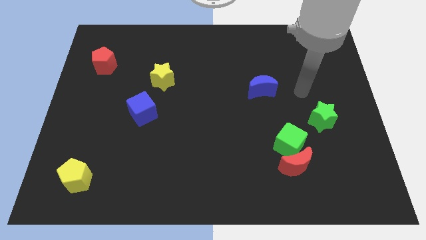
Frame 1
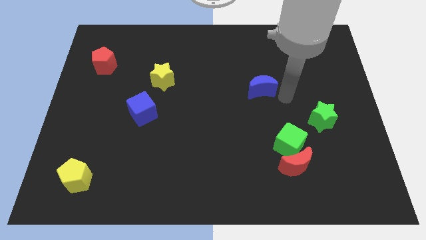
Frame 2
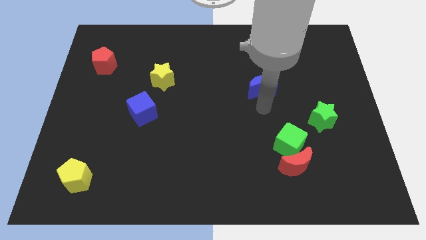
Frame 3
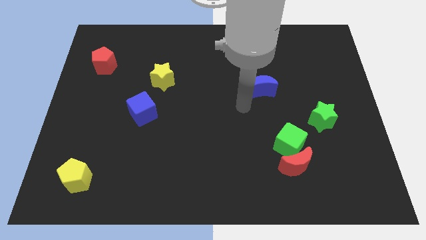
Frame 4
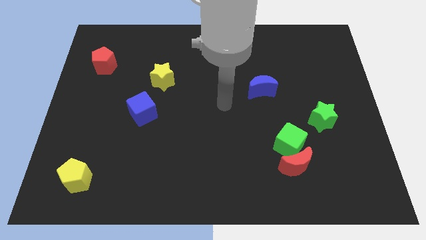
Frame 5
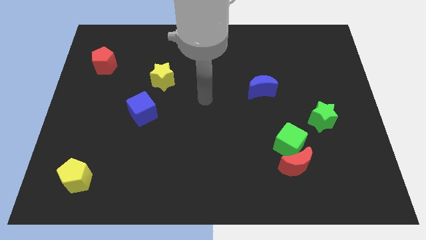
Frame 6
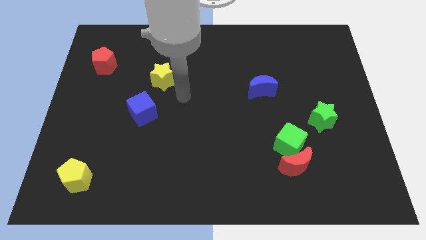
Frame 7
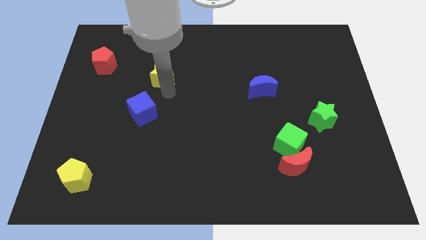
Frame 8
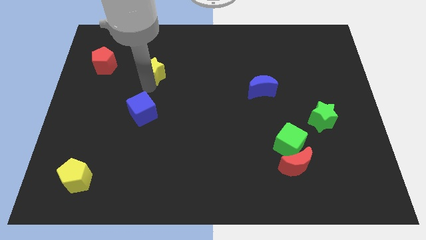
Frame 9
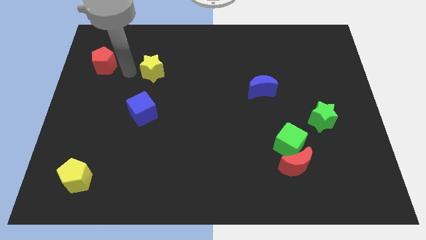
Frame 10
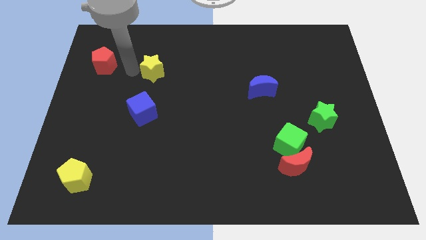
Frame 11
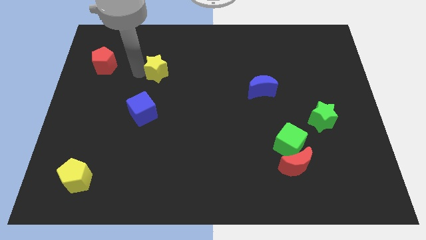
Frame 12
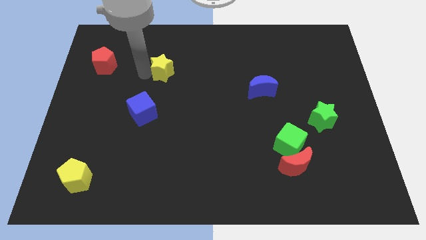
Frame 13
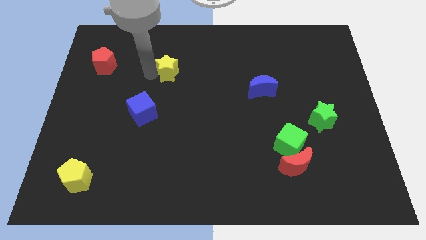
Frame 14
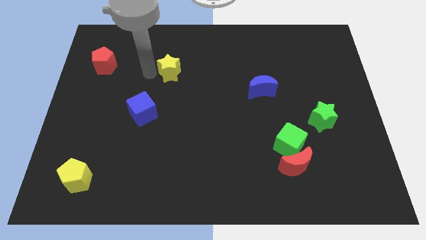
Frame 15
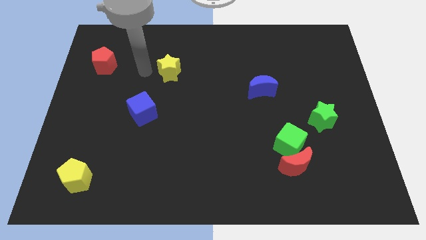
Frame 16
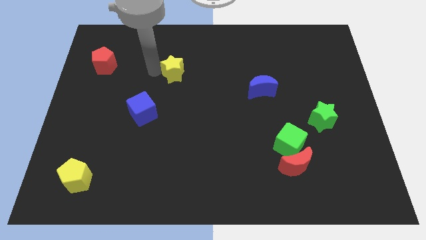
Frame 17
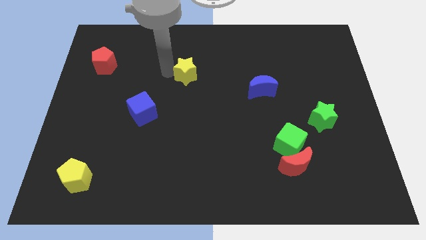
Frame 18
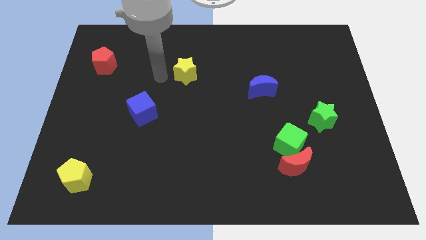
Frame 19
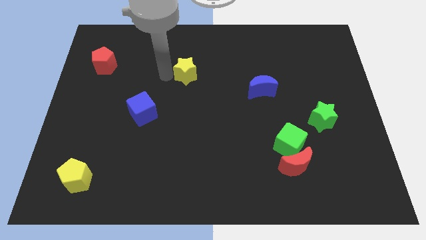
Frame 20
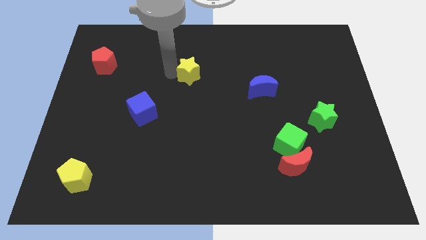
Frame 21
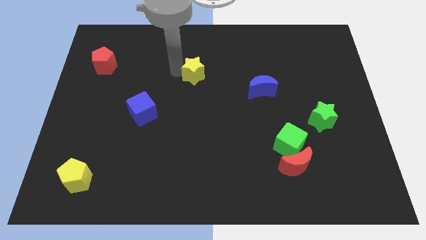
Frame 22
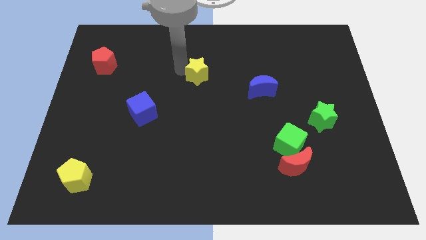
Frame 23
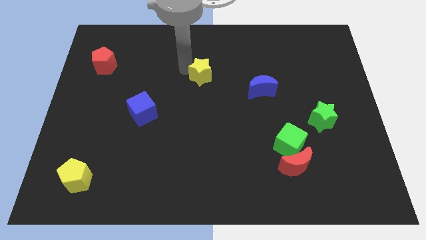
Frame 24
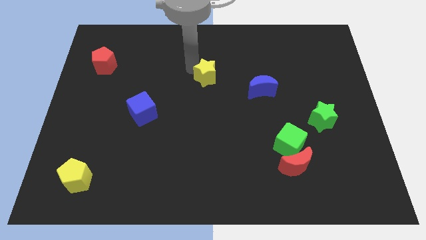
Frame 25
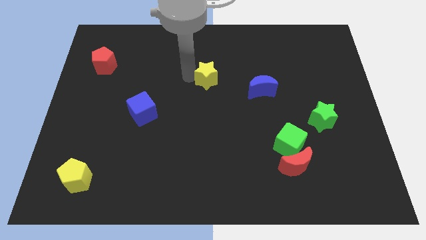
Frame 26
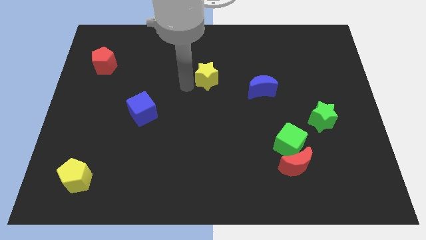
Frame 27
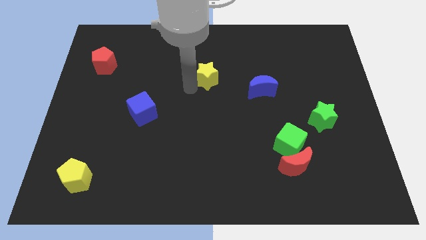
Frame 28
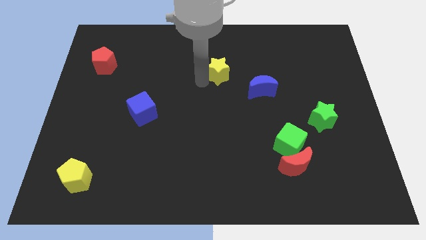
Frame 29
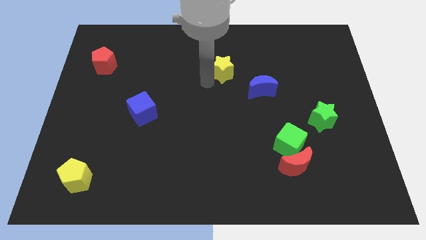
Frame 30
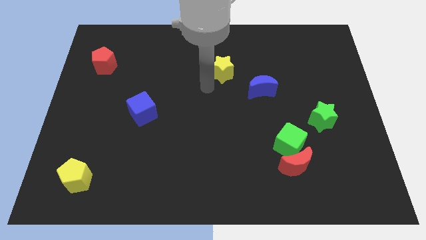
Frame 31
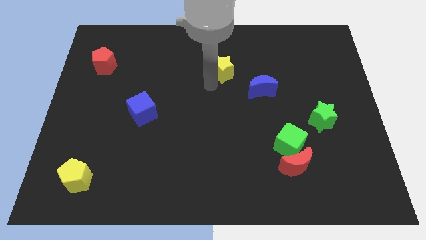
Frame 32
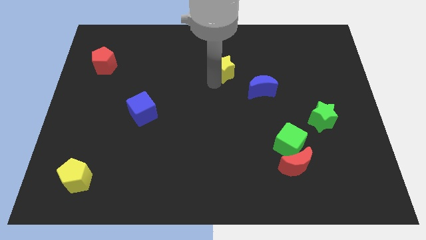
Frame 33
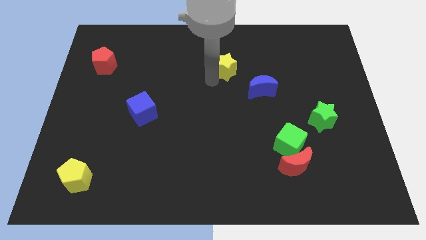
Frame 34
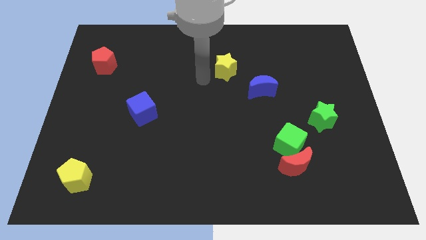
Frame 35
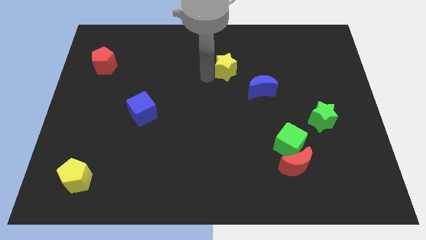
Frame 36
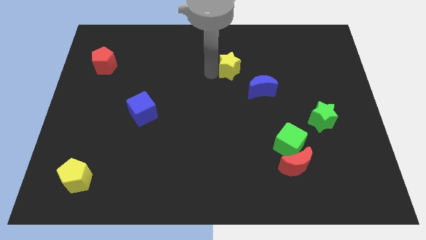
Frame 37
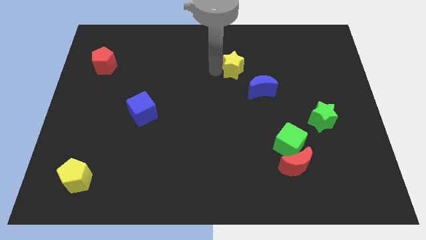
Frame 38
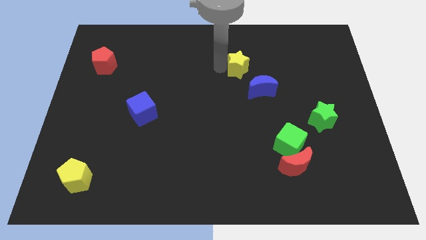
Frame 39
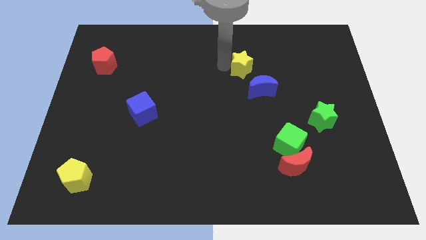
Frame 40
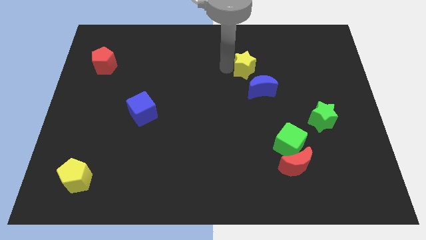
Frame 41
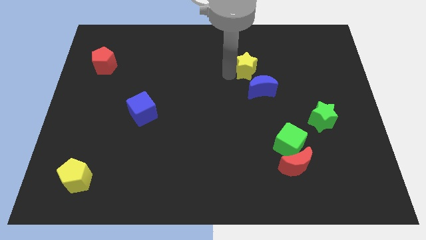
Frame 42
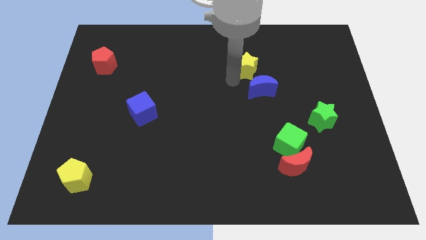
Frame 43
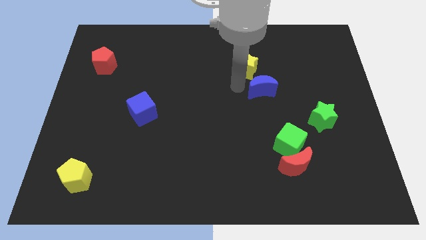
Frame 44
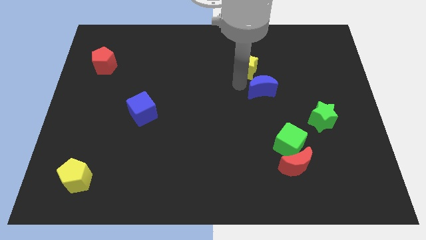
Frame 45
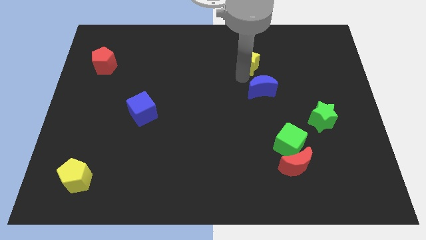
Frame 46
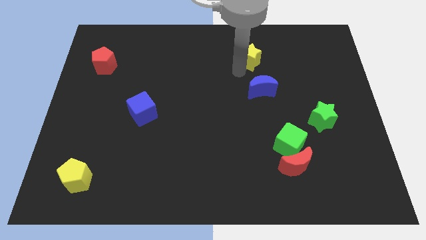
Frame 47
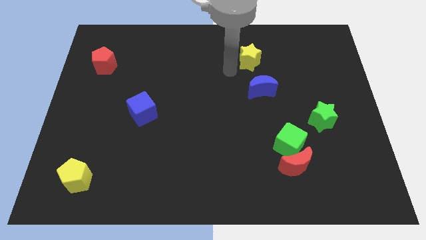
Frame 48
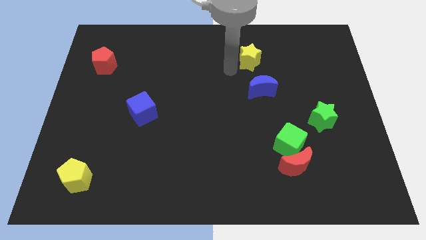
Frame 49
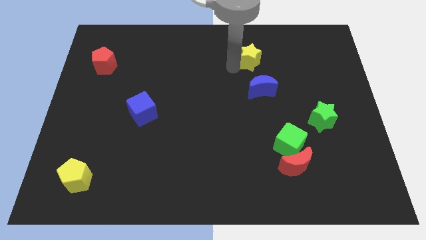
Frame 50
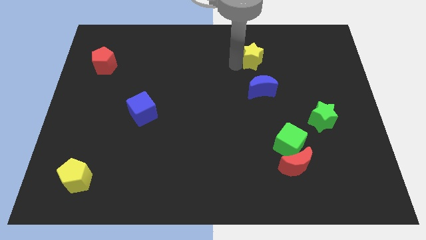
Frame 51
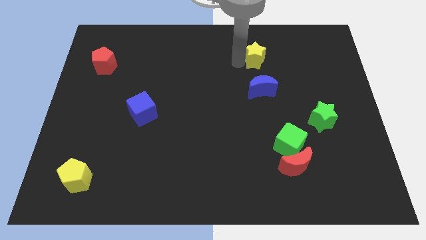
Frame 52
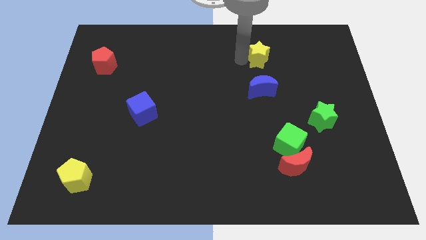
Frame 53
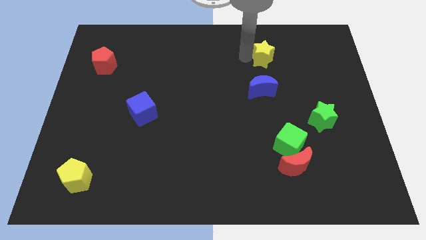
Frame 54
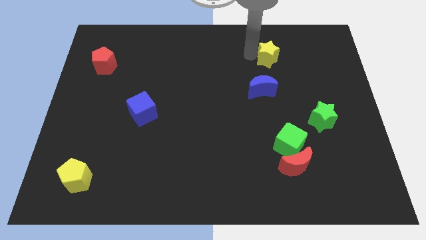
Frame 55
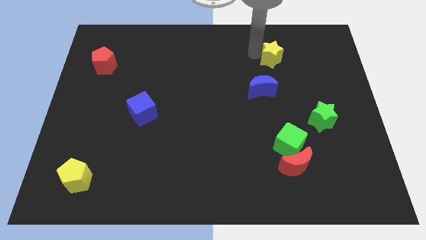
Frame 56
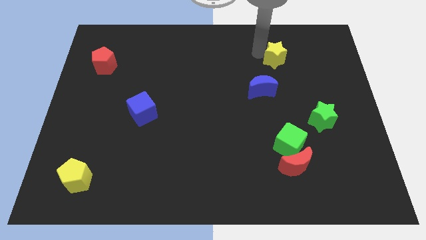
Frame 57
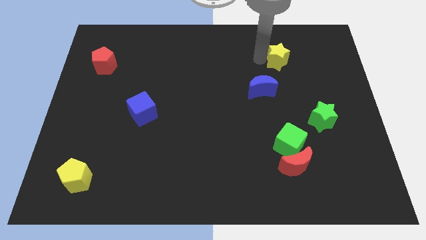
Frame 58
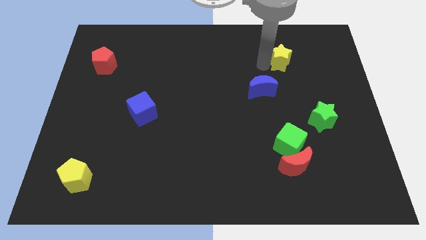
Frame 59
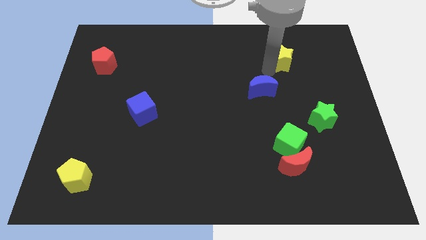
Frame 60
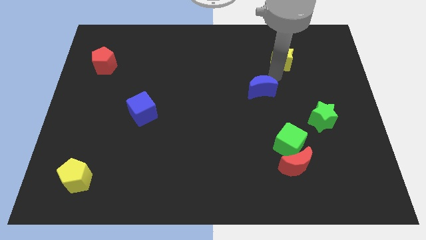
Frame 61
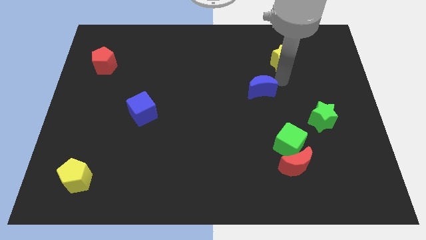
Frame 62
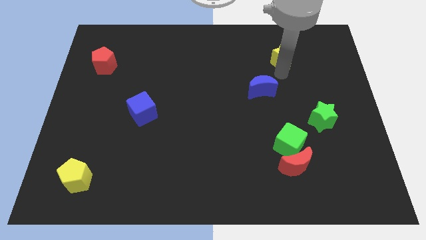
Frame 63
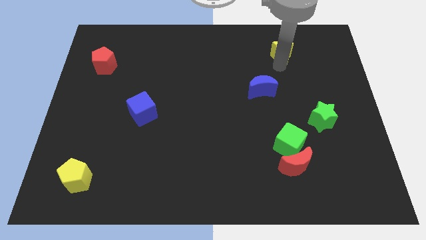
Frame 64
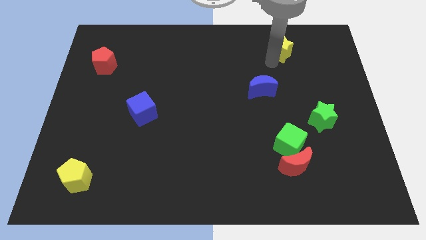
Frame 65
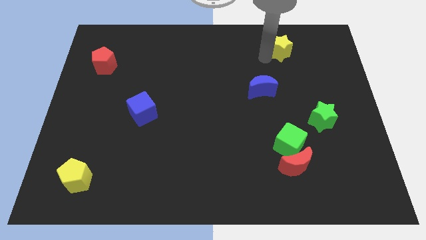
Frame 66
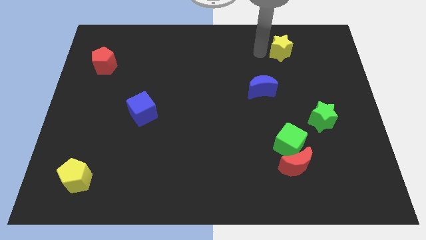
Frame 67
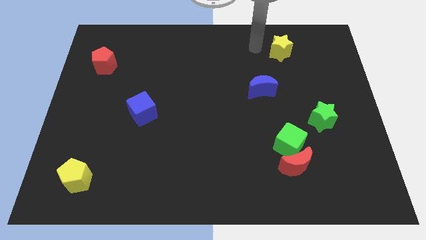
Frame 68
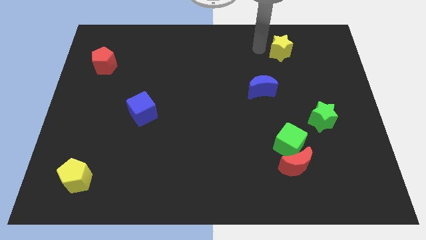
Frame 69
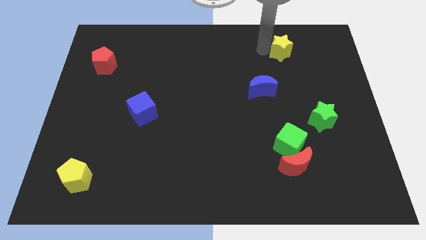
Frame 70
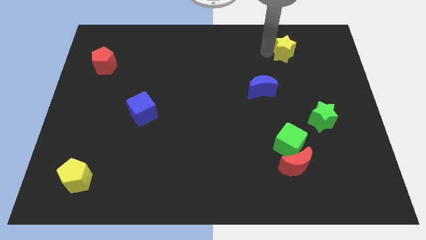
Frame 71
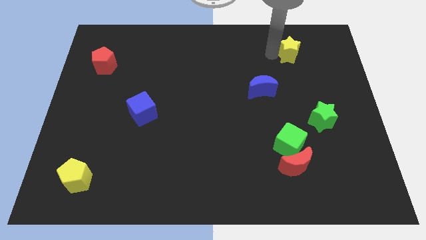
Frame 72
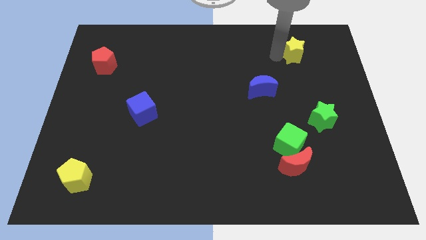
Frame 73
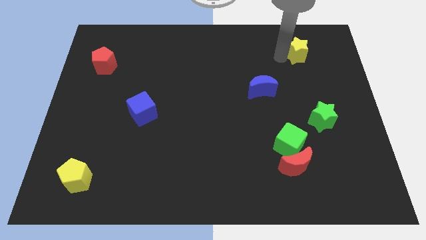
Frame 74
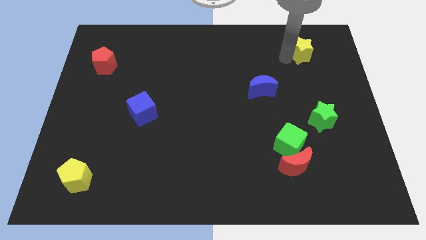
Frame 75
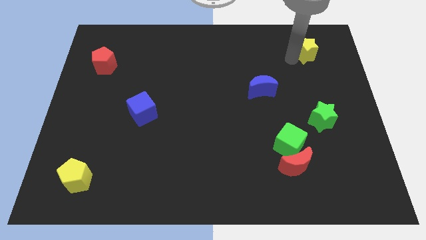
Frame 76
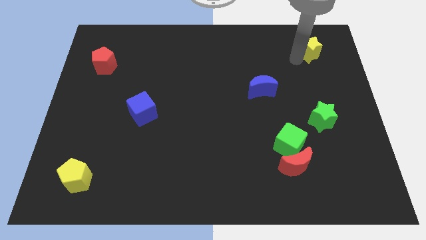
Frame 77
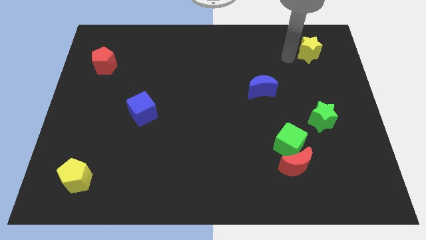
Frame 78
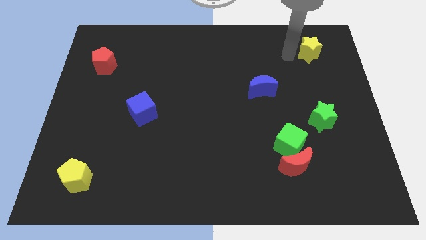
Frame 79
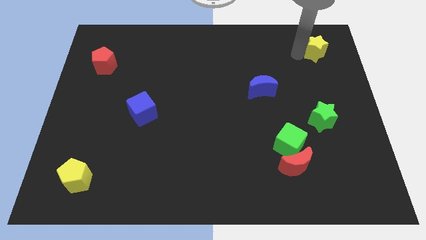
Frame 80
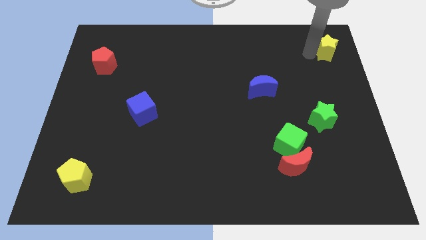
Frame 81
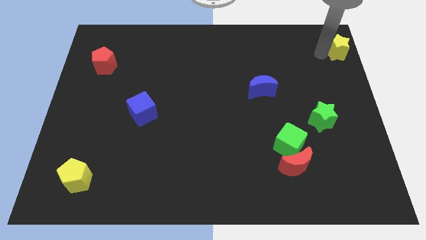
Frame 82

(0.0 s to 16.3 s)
push the yellow star to the top right of the board
